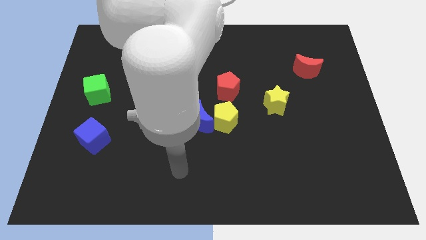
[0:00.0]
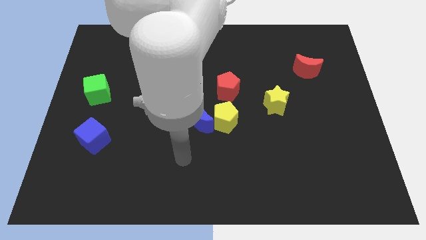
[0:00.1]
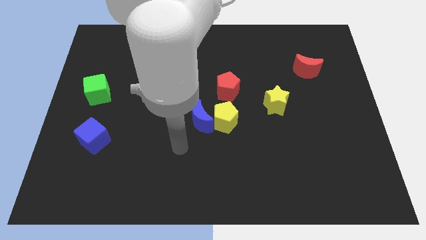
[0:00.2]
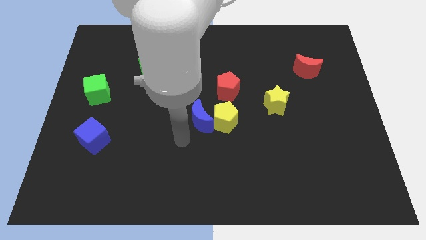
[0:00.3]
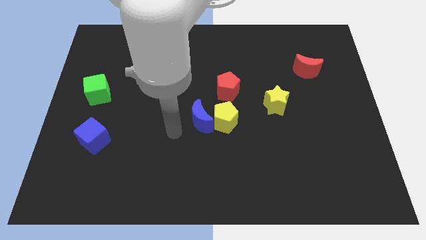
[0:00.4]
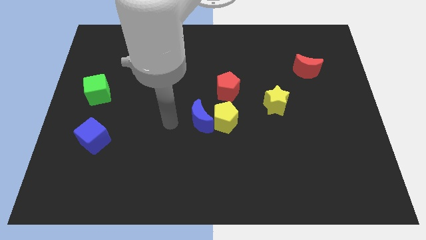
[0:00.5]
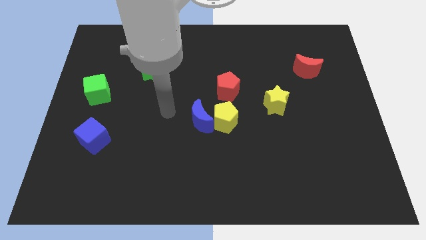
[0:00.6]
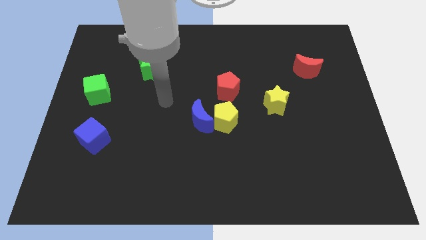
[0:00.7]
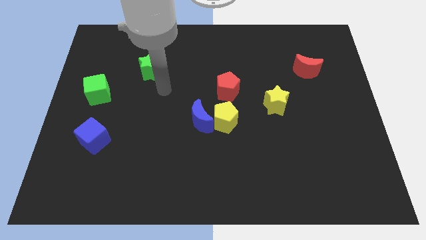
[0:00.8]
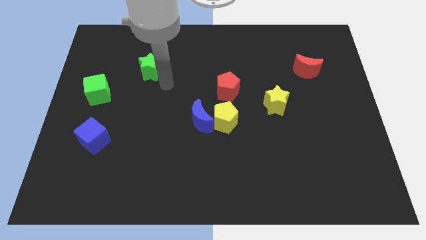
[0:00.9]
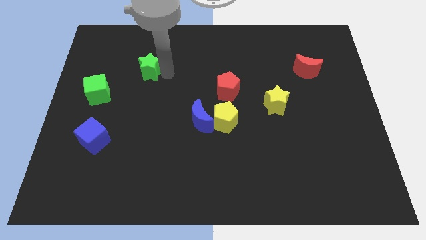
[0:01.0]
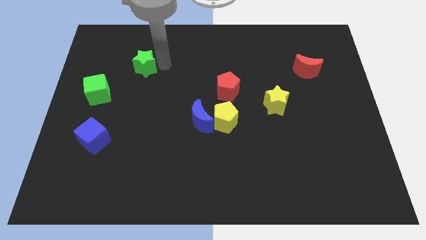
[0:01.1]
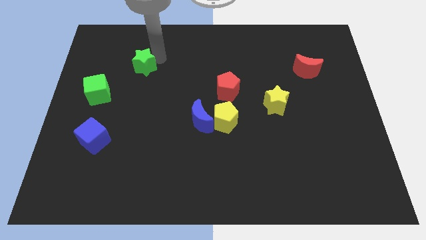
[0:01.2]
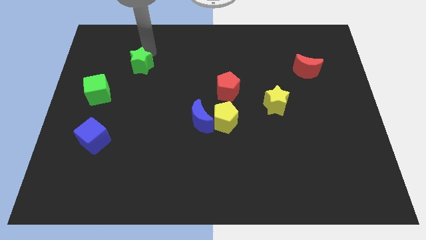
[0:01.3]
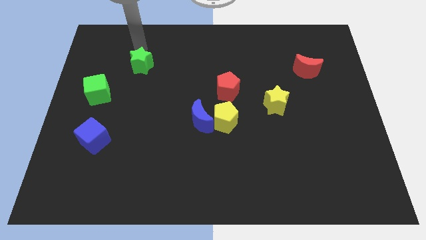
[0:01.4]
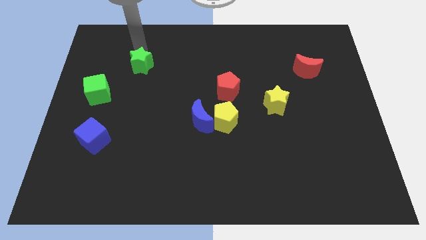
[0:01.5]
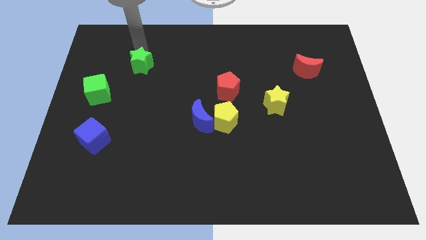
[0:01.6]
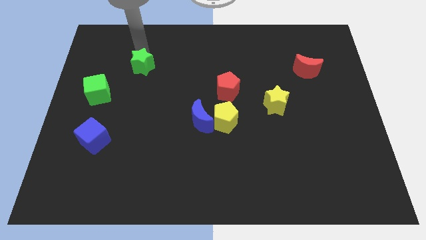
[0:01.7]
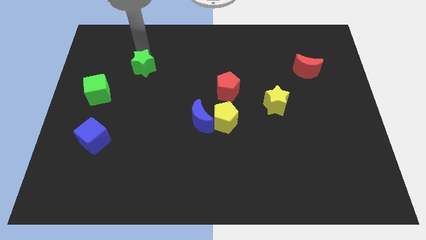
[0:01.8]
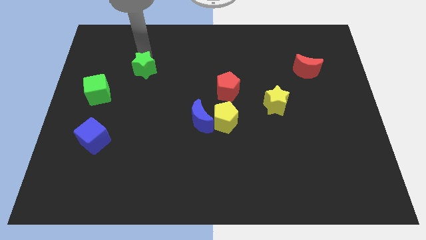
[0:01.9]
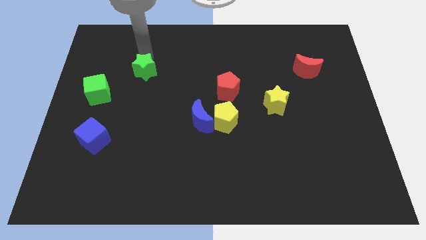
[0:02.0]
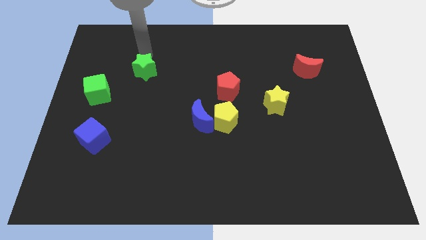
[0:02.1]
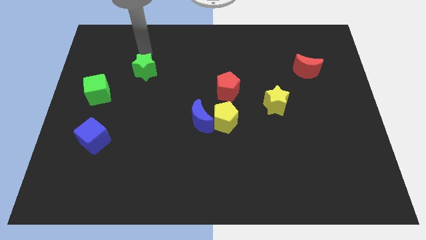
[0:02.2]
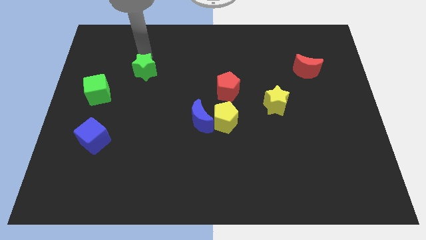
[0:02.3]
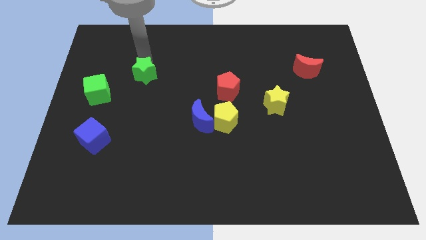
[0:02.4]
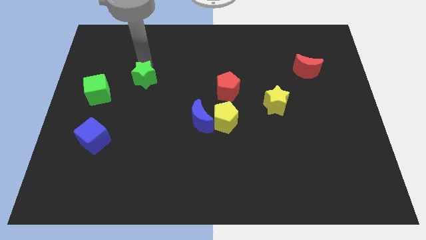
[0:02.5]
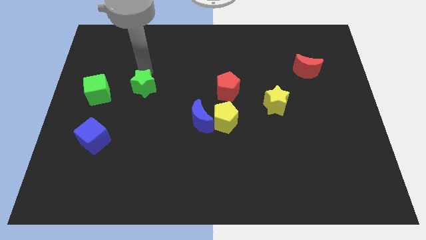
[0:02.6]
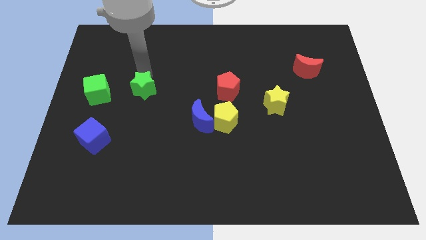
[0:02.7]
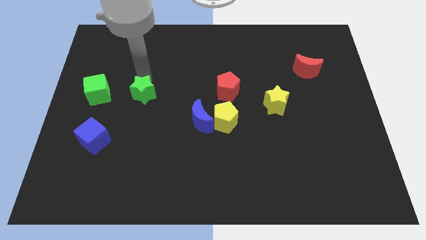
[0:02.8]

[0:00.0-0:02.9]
slightly move the green star down

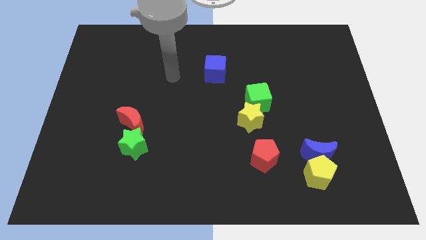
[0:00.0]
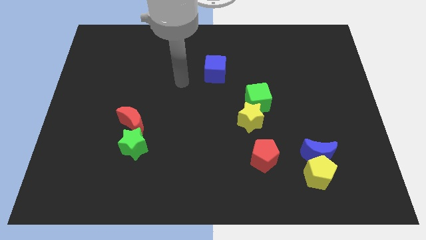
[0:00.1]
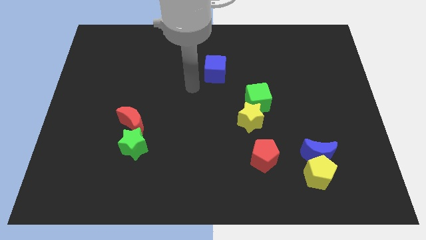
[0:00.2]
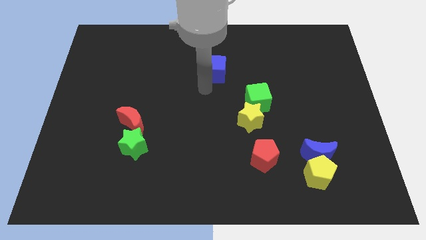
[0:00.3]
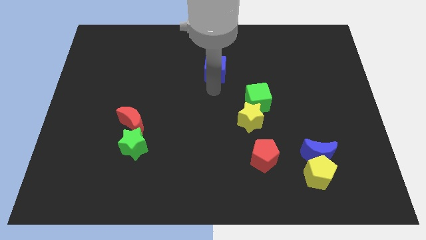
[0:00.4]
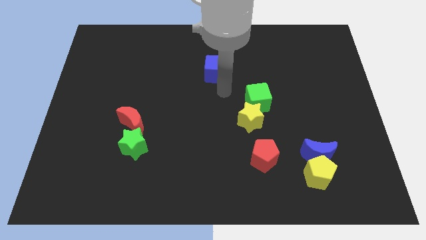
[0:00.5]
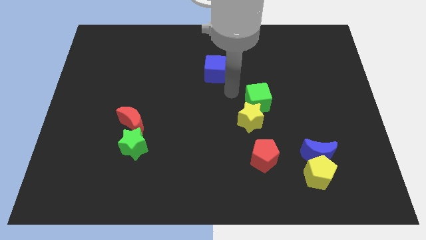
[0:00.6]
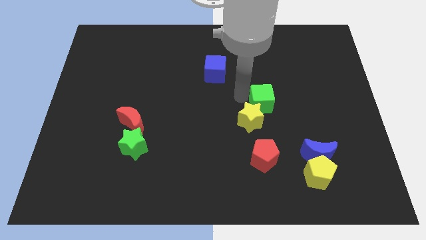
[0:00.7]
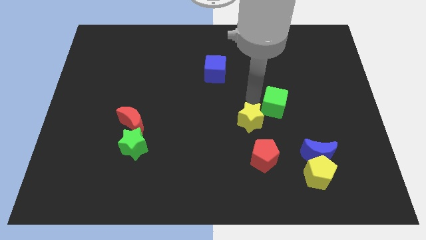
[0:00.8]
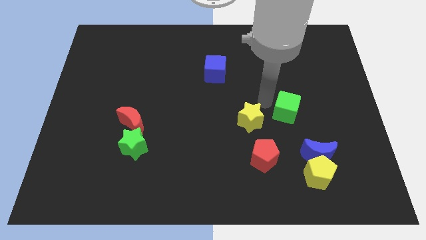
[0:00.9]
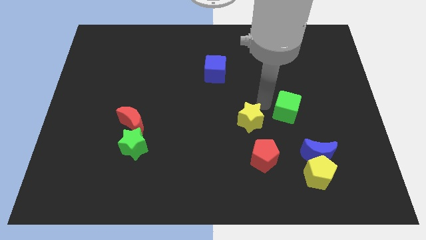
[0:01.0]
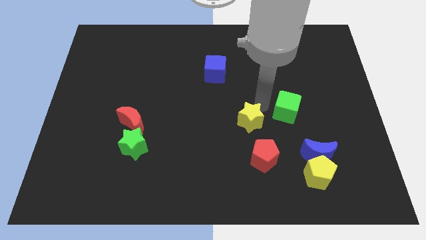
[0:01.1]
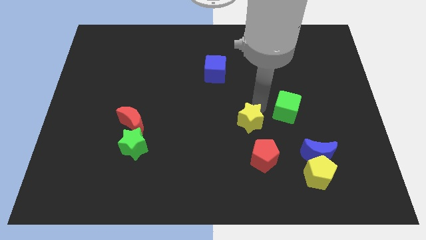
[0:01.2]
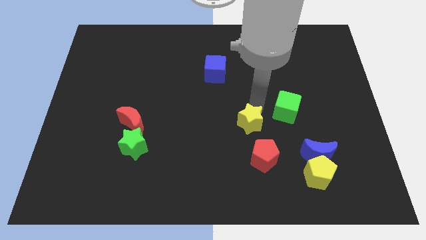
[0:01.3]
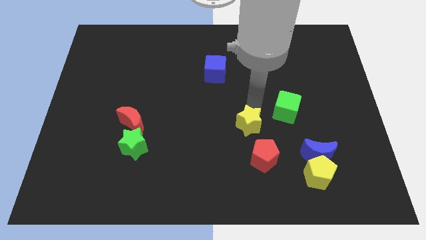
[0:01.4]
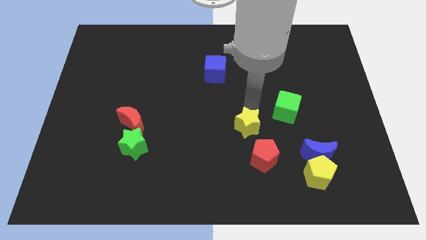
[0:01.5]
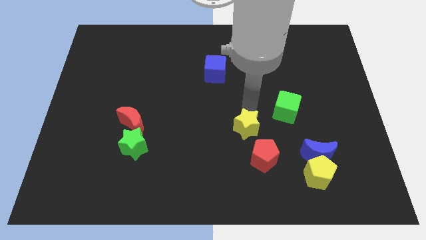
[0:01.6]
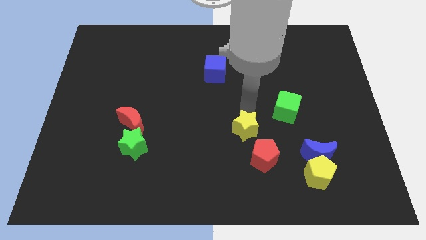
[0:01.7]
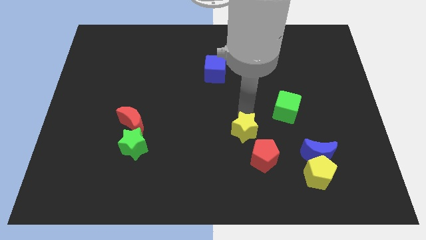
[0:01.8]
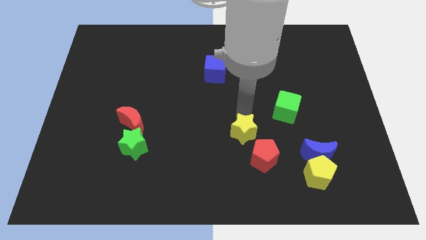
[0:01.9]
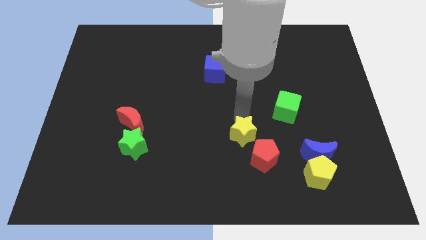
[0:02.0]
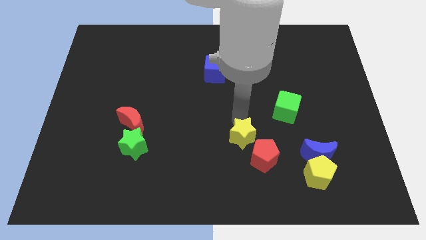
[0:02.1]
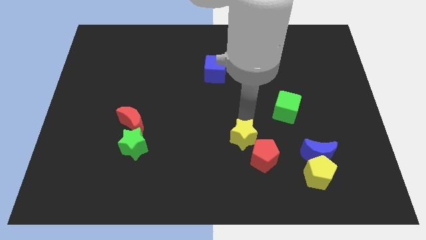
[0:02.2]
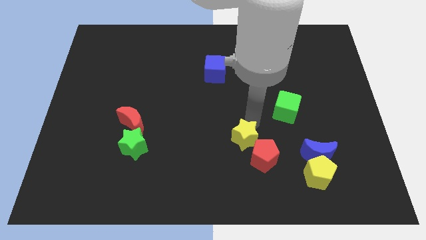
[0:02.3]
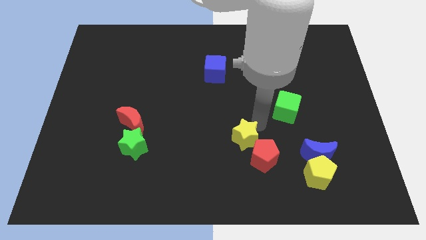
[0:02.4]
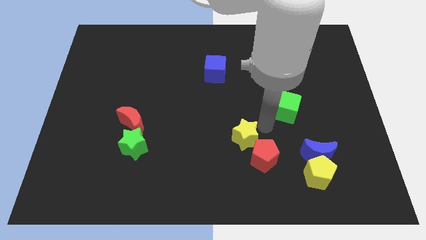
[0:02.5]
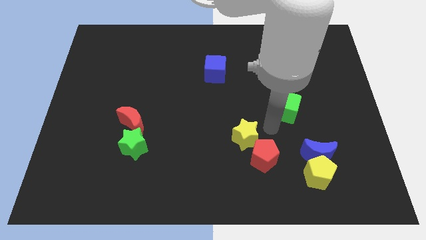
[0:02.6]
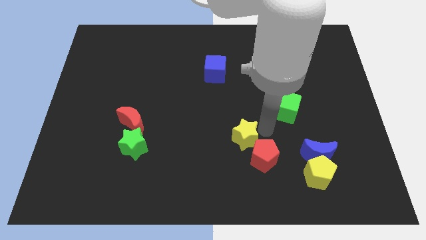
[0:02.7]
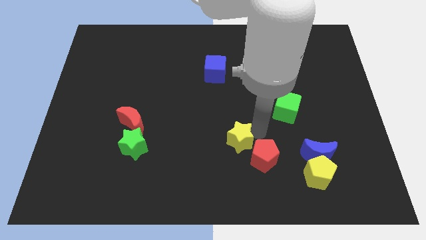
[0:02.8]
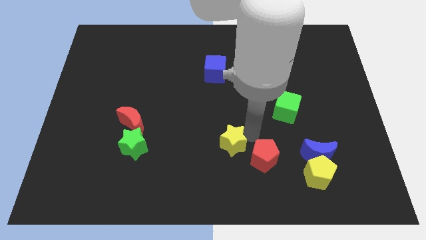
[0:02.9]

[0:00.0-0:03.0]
slightly move the yellow star down and left diagonally

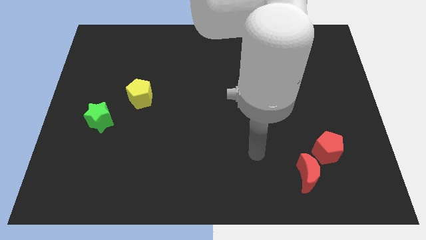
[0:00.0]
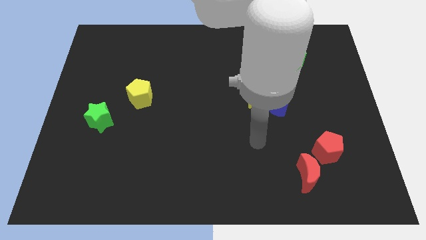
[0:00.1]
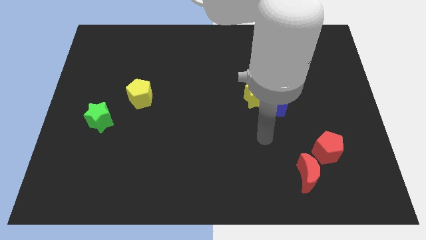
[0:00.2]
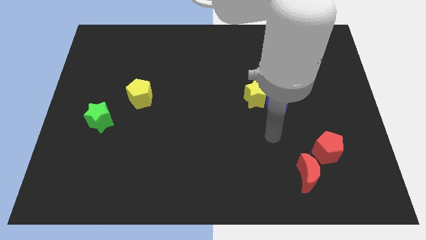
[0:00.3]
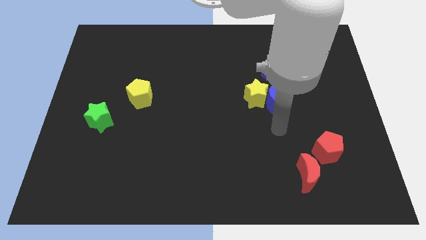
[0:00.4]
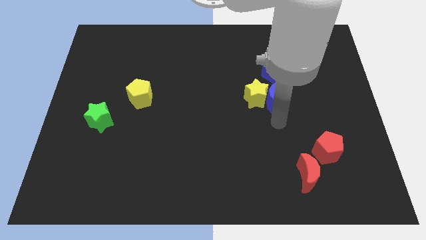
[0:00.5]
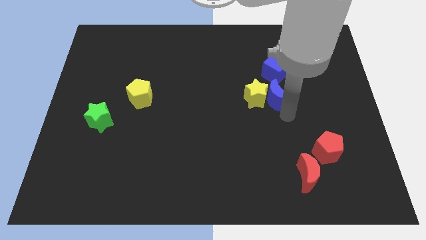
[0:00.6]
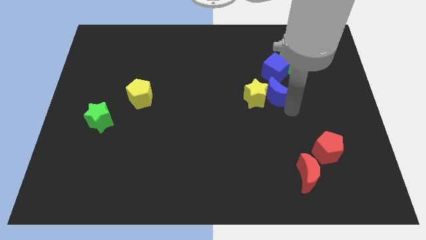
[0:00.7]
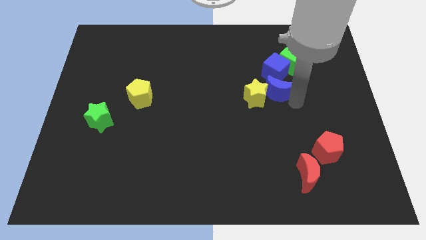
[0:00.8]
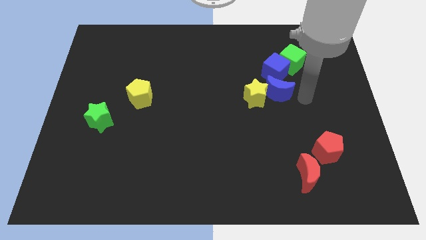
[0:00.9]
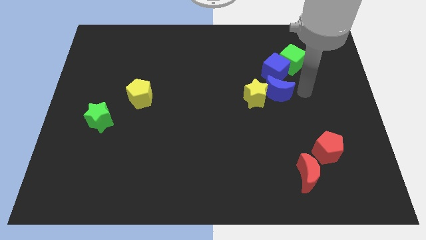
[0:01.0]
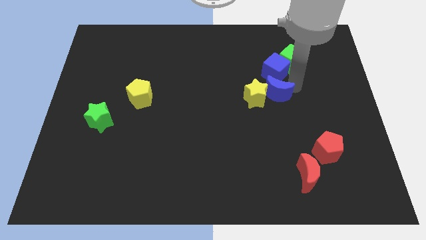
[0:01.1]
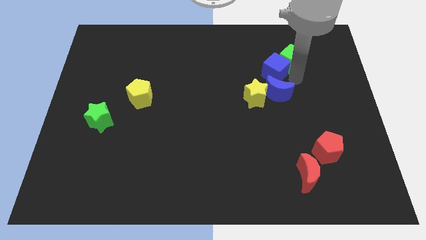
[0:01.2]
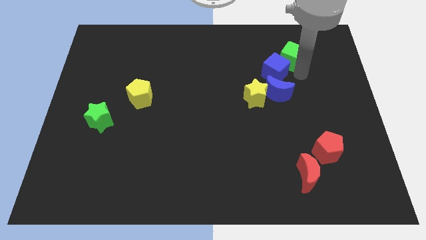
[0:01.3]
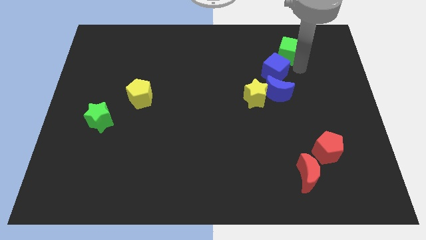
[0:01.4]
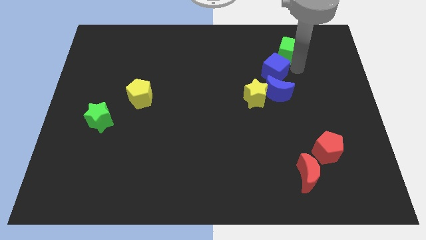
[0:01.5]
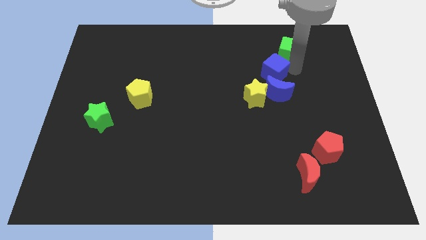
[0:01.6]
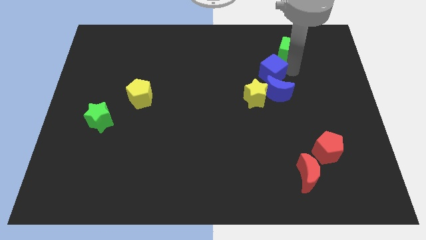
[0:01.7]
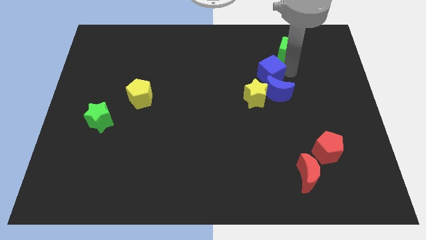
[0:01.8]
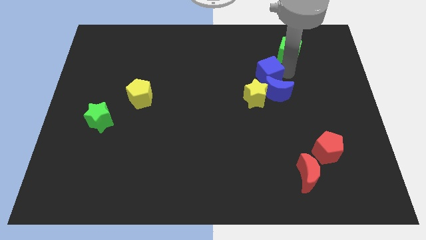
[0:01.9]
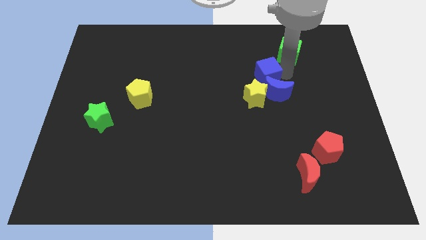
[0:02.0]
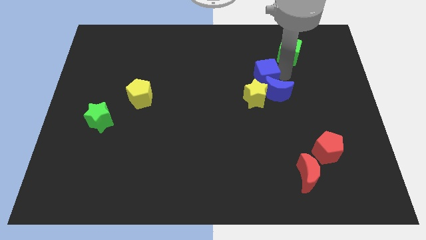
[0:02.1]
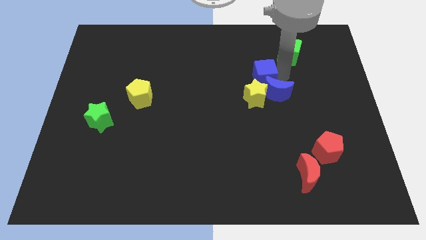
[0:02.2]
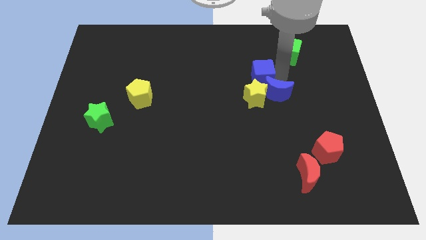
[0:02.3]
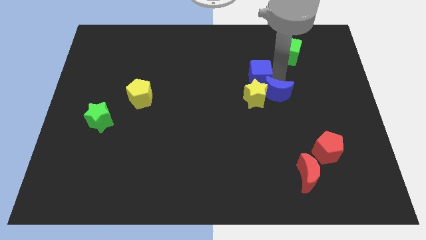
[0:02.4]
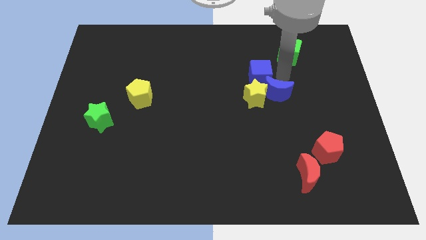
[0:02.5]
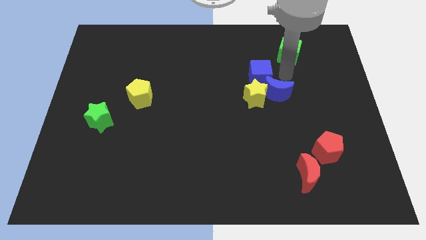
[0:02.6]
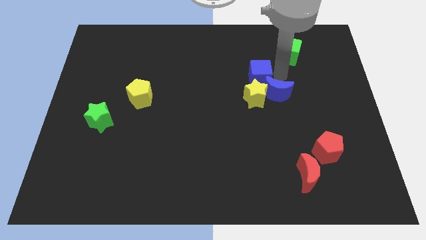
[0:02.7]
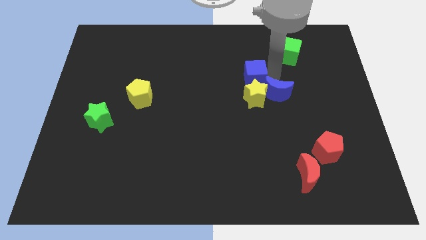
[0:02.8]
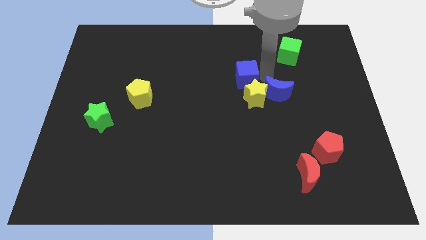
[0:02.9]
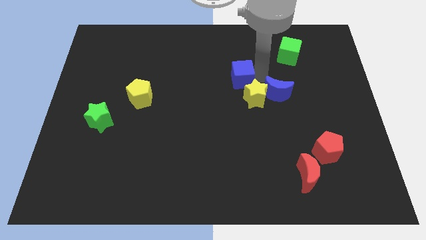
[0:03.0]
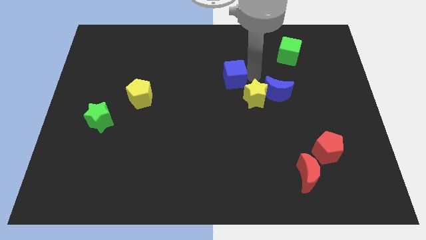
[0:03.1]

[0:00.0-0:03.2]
push the blue cube downwards and left somewhat
